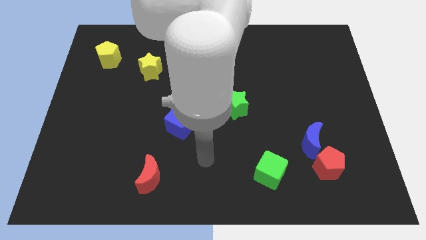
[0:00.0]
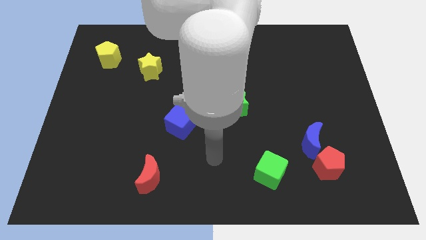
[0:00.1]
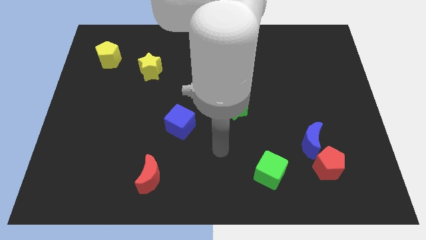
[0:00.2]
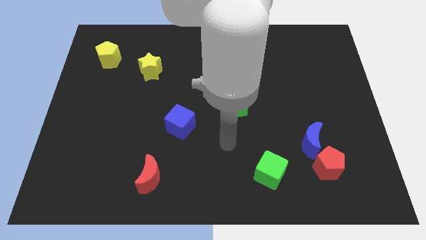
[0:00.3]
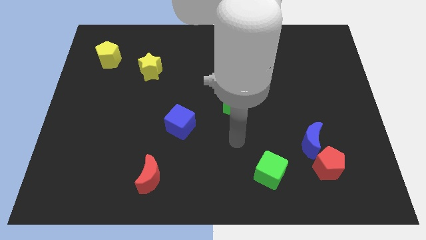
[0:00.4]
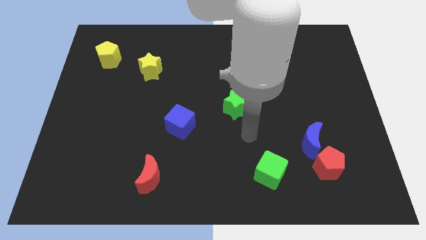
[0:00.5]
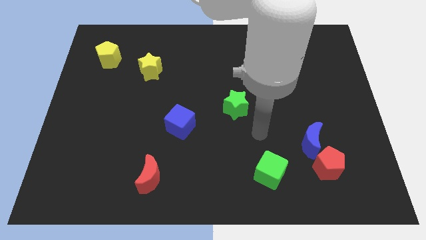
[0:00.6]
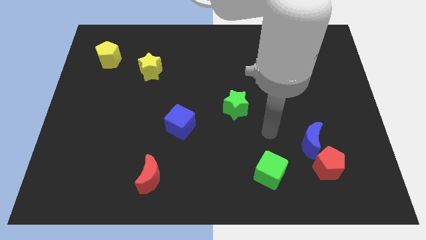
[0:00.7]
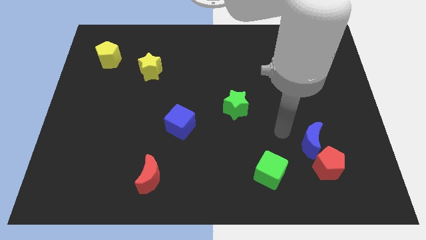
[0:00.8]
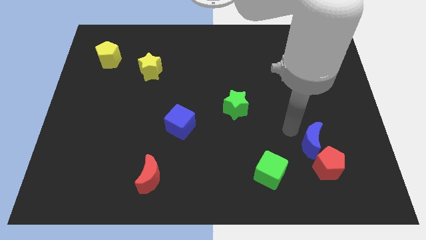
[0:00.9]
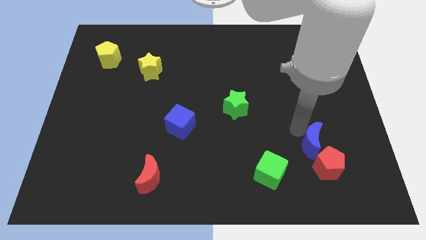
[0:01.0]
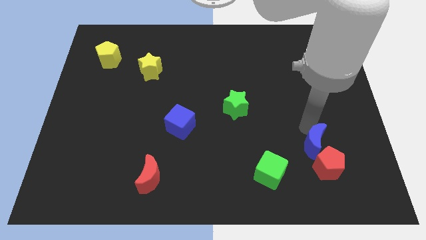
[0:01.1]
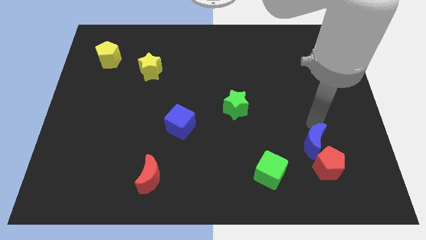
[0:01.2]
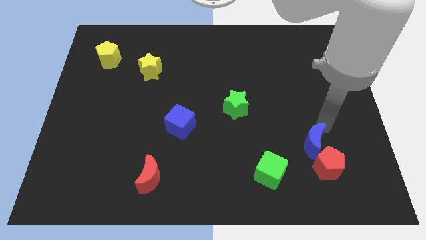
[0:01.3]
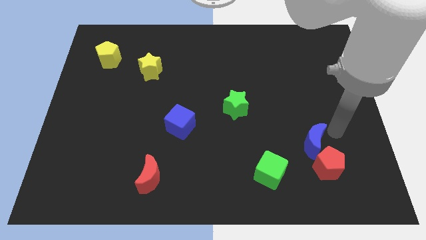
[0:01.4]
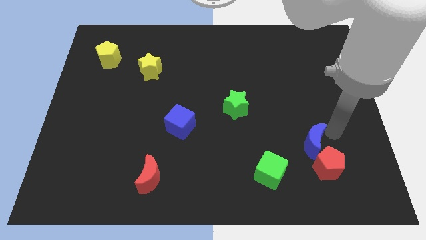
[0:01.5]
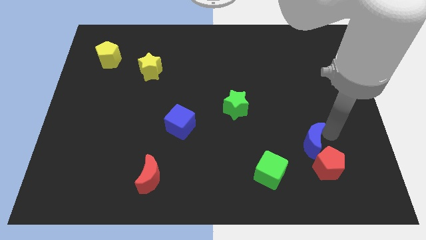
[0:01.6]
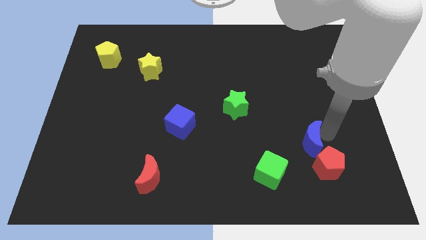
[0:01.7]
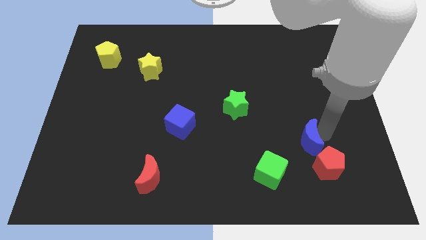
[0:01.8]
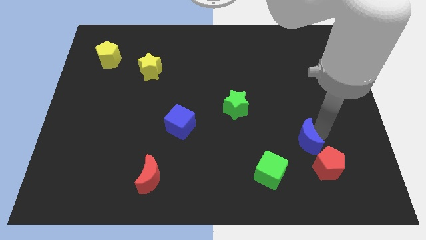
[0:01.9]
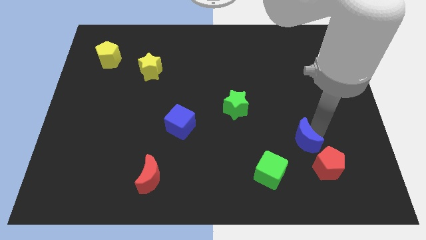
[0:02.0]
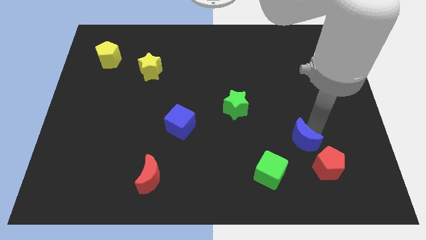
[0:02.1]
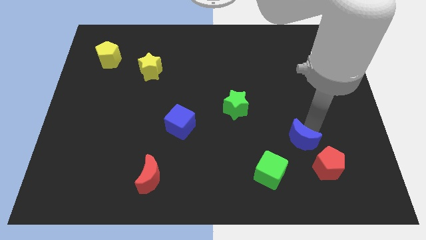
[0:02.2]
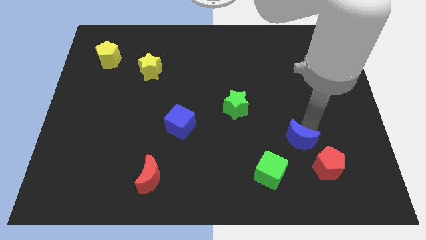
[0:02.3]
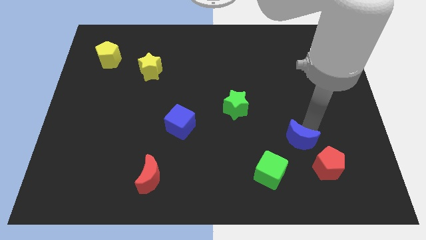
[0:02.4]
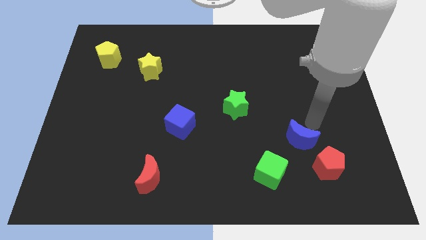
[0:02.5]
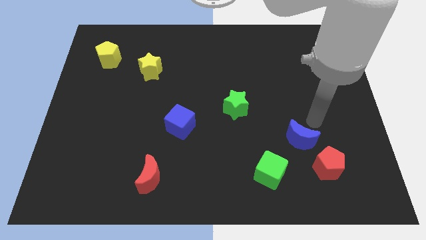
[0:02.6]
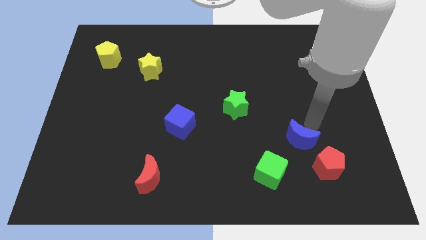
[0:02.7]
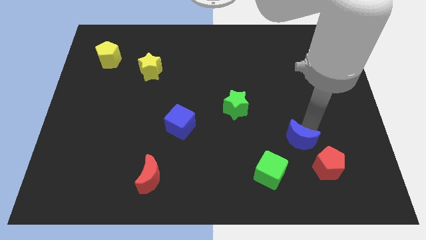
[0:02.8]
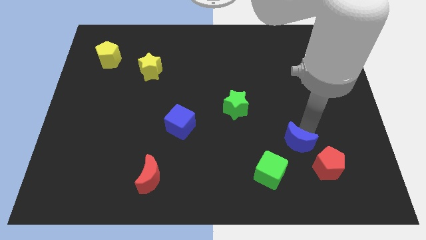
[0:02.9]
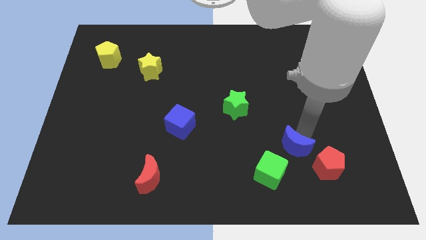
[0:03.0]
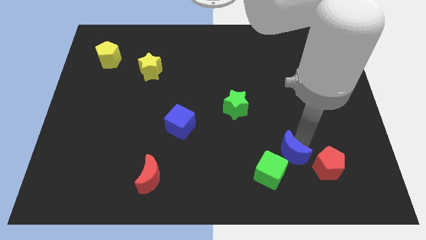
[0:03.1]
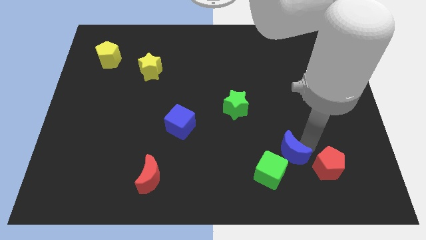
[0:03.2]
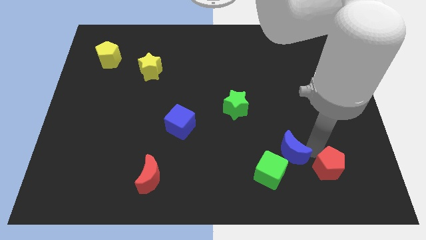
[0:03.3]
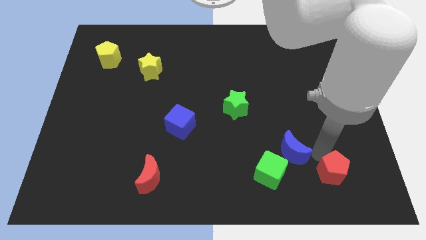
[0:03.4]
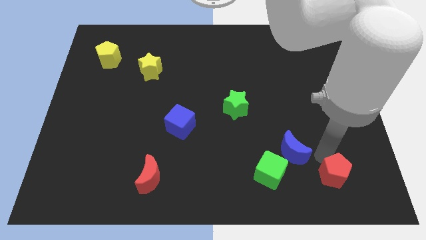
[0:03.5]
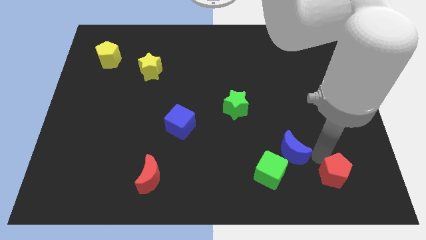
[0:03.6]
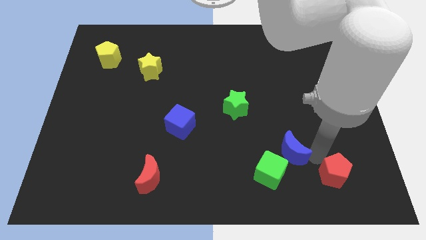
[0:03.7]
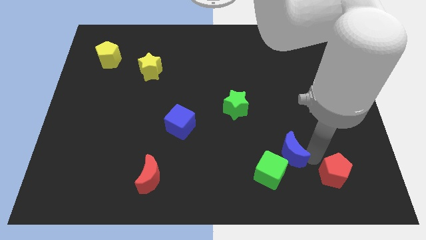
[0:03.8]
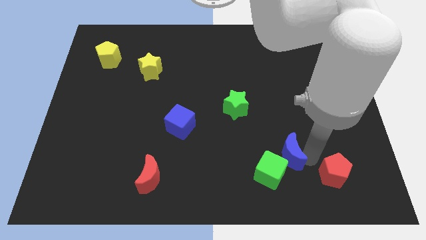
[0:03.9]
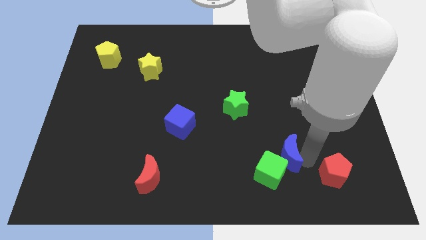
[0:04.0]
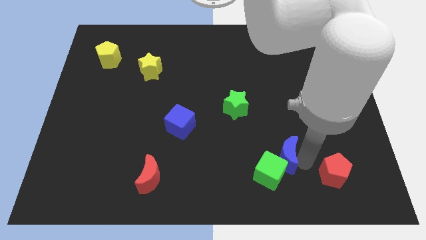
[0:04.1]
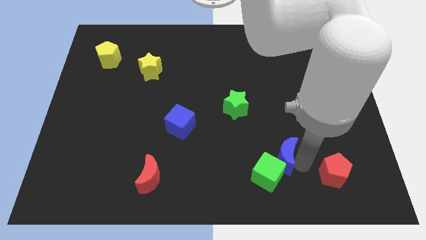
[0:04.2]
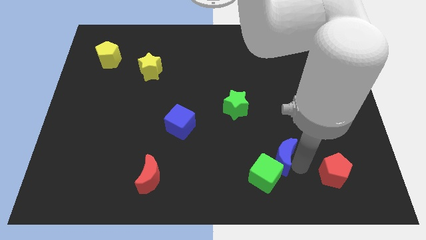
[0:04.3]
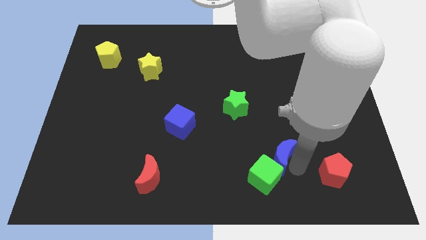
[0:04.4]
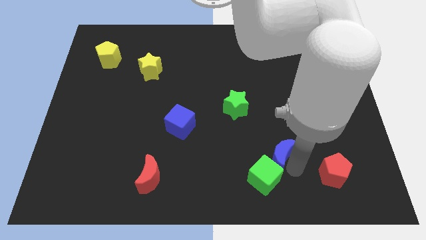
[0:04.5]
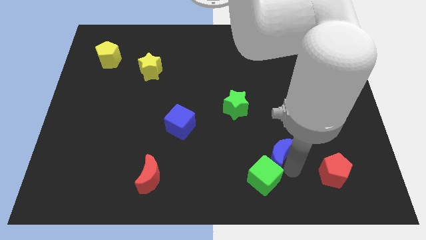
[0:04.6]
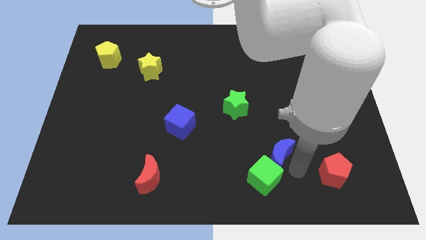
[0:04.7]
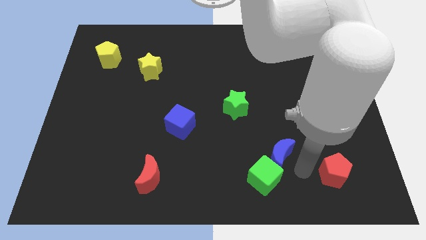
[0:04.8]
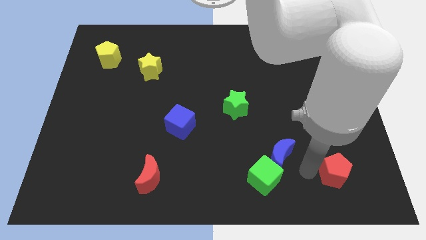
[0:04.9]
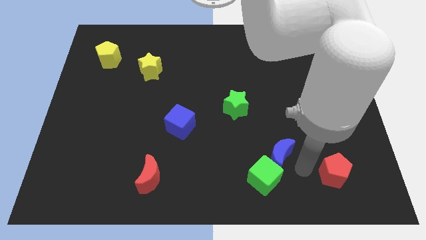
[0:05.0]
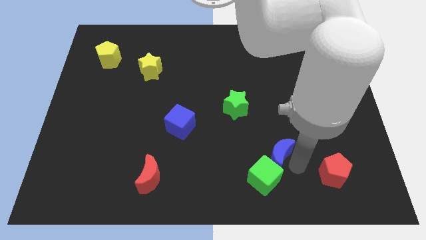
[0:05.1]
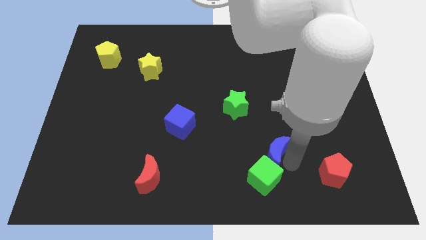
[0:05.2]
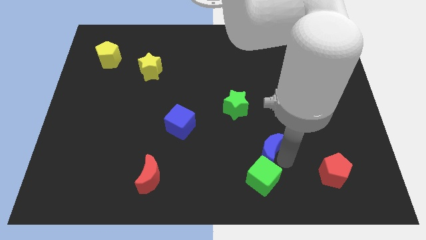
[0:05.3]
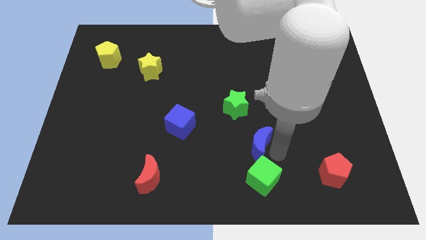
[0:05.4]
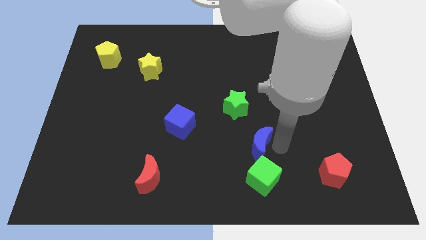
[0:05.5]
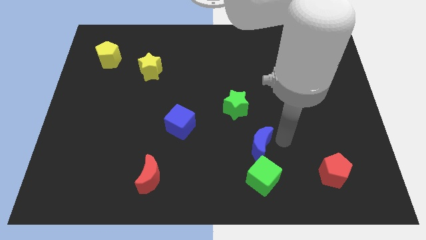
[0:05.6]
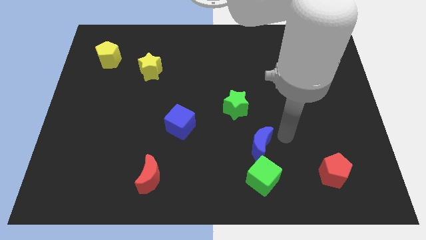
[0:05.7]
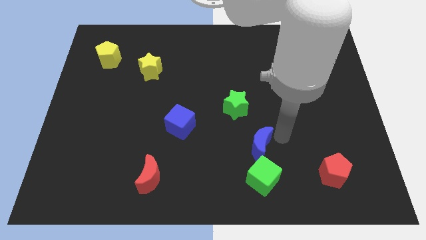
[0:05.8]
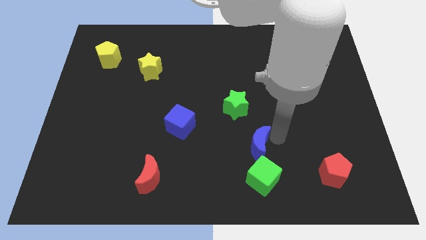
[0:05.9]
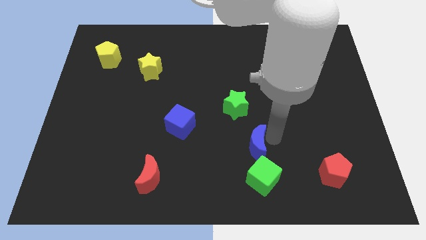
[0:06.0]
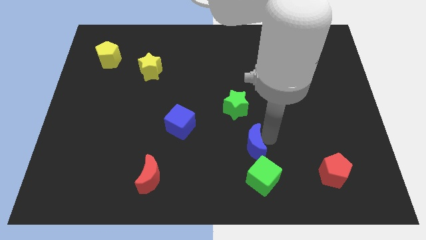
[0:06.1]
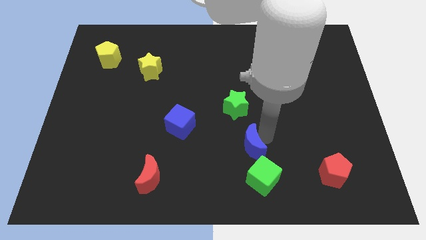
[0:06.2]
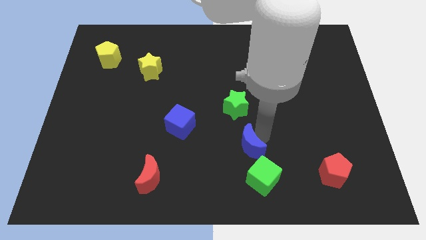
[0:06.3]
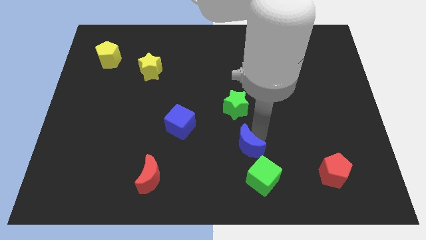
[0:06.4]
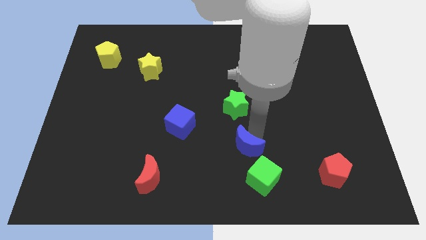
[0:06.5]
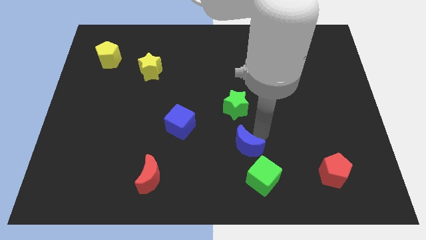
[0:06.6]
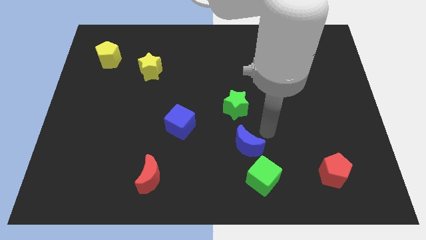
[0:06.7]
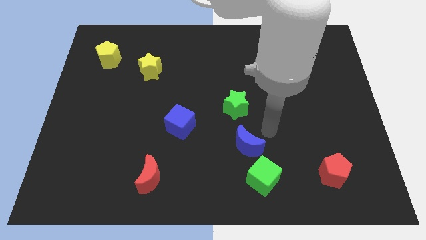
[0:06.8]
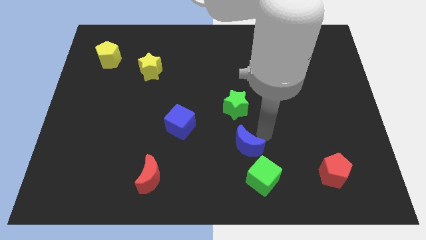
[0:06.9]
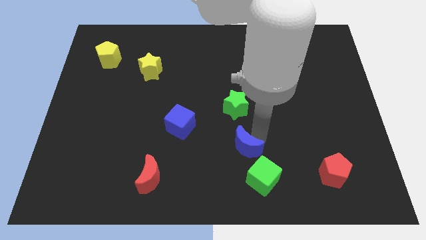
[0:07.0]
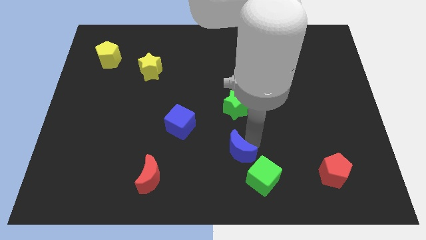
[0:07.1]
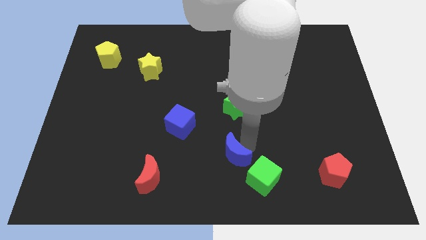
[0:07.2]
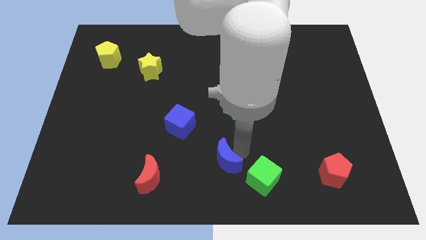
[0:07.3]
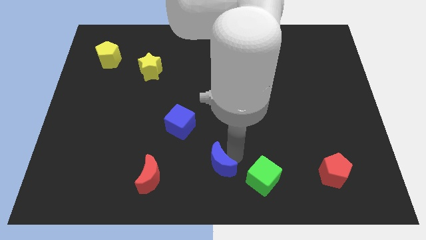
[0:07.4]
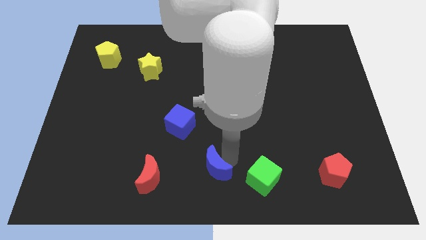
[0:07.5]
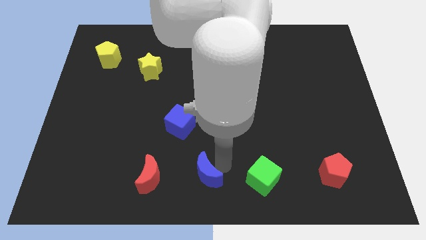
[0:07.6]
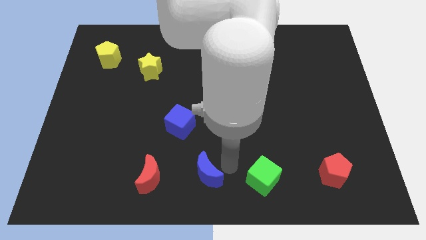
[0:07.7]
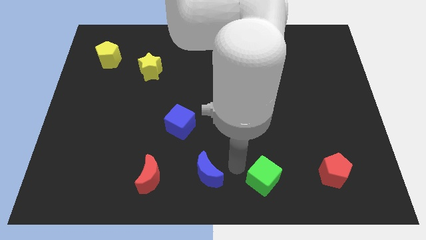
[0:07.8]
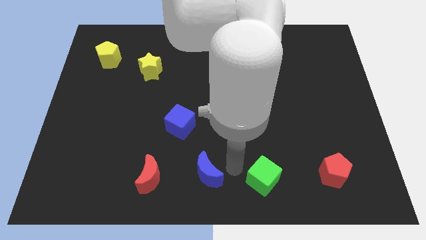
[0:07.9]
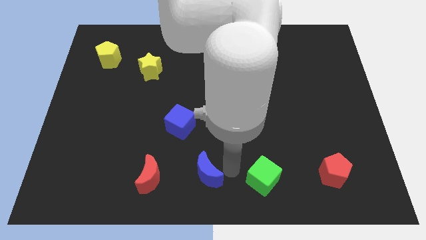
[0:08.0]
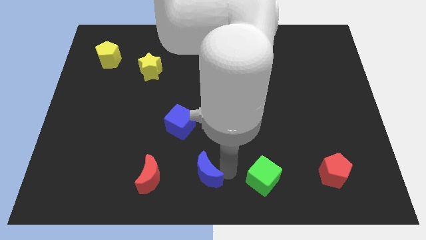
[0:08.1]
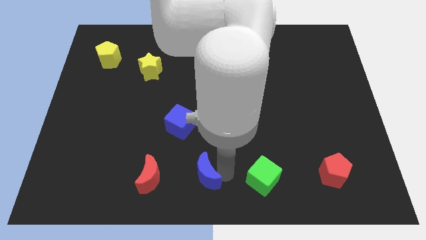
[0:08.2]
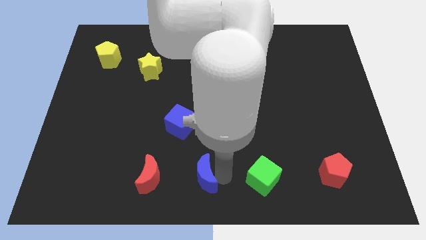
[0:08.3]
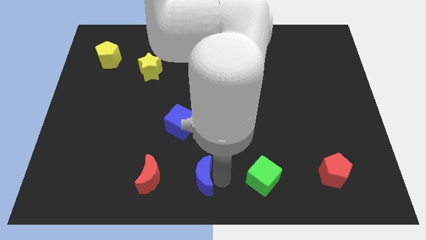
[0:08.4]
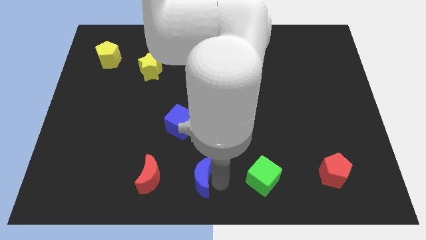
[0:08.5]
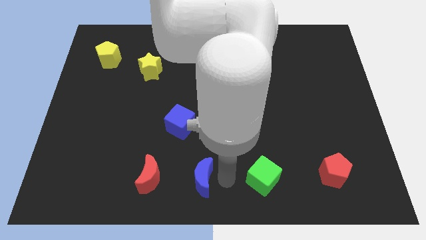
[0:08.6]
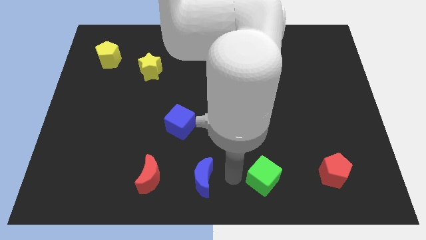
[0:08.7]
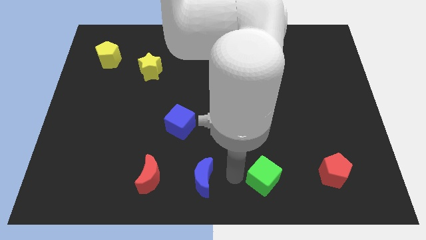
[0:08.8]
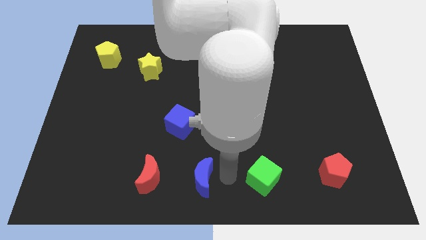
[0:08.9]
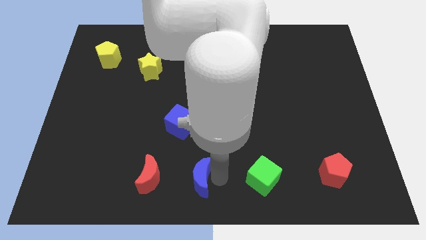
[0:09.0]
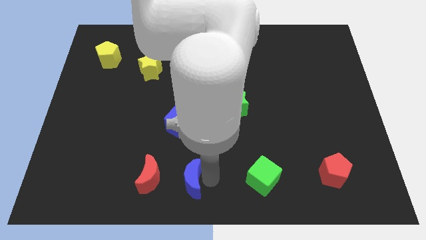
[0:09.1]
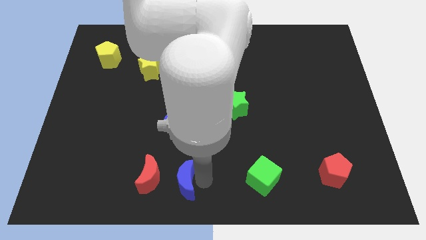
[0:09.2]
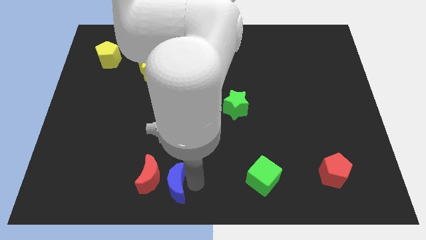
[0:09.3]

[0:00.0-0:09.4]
push the blue moon towards the red moon
